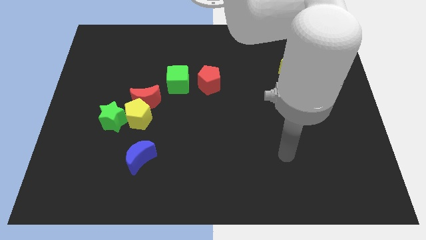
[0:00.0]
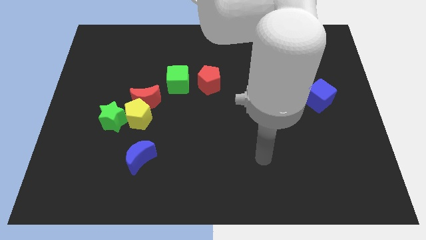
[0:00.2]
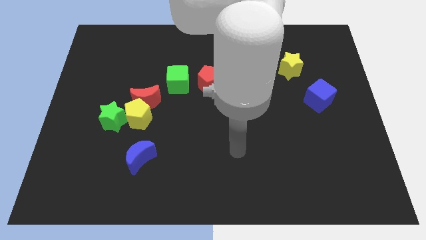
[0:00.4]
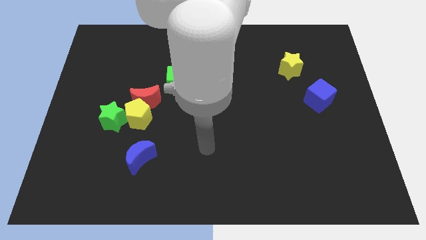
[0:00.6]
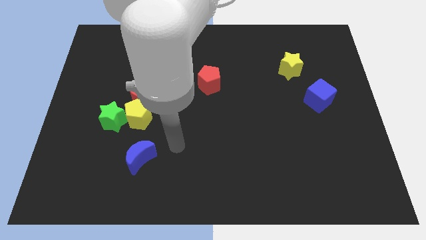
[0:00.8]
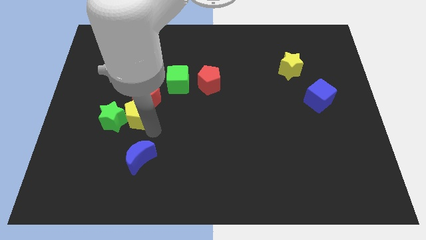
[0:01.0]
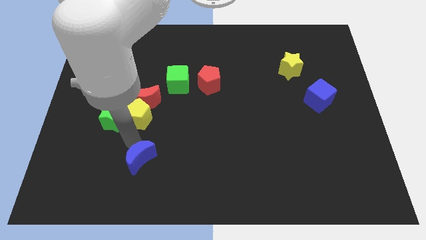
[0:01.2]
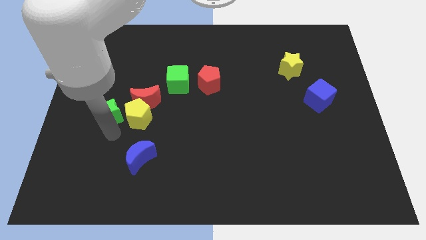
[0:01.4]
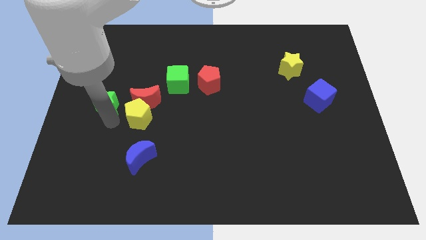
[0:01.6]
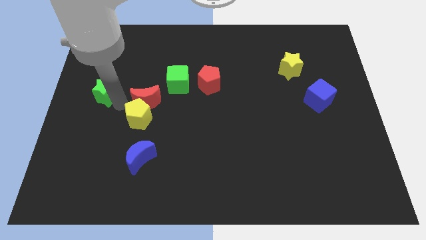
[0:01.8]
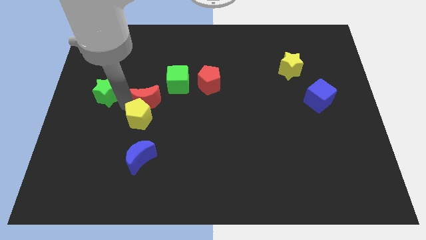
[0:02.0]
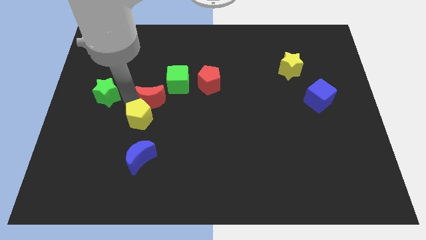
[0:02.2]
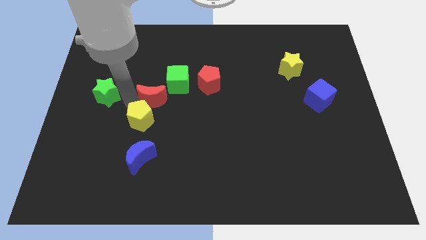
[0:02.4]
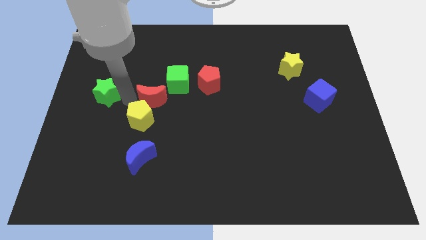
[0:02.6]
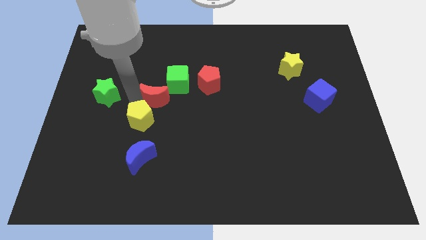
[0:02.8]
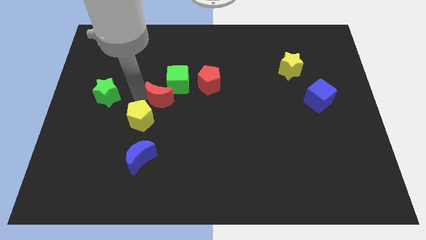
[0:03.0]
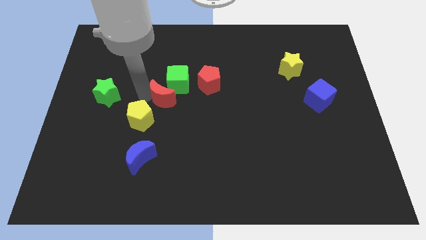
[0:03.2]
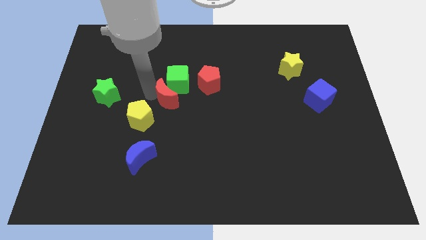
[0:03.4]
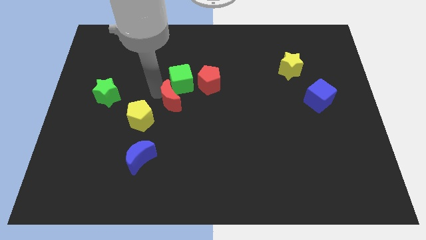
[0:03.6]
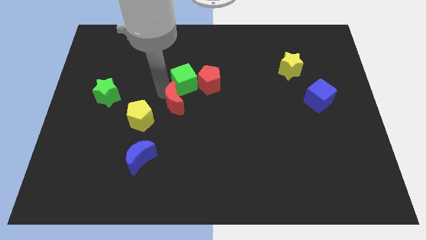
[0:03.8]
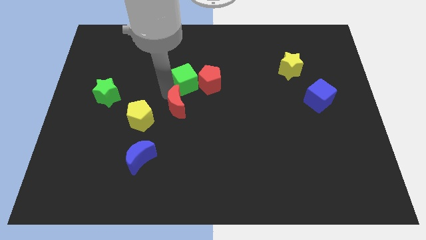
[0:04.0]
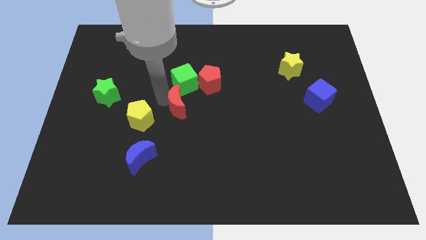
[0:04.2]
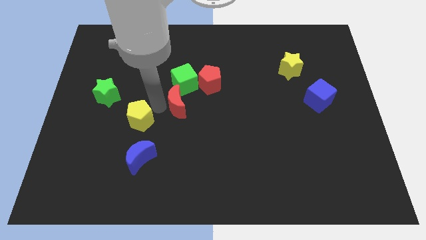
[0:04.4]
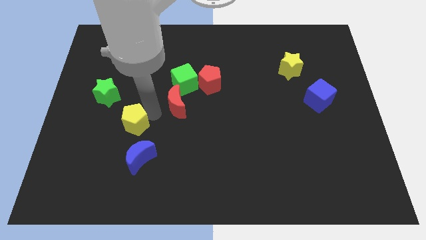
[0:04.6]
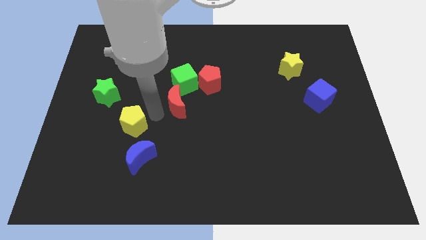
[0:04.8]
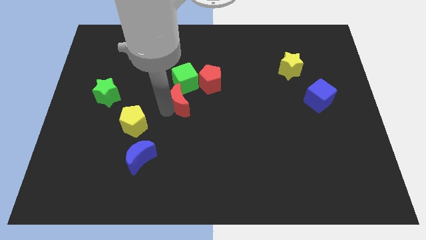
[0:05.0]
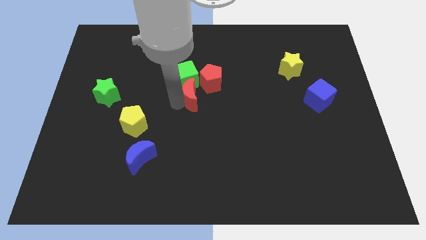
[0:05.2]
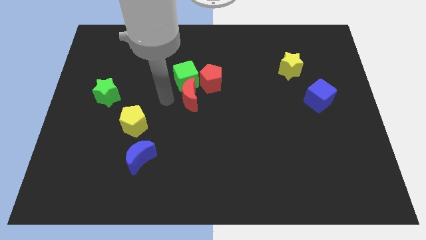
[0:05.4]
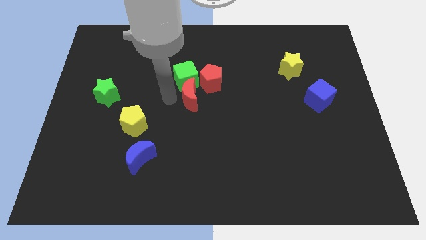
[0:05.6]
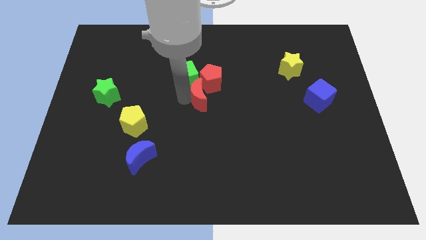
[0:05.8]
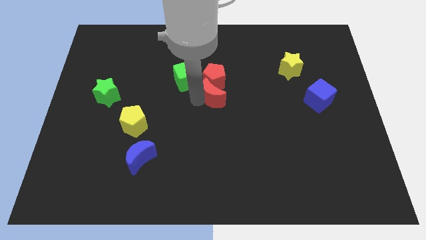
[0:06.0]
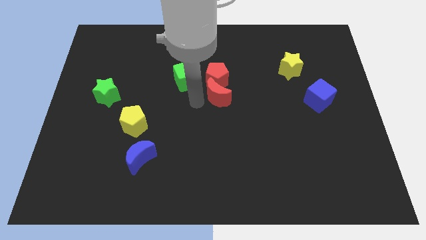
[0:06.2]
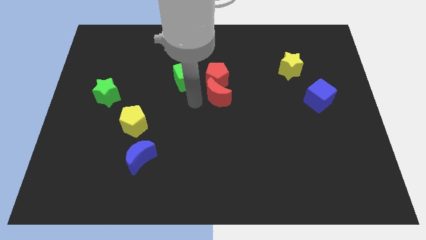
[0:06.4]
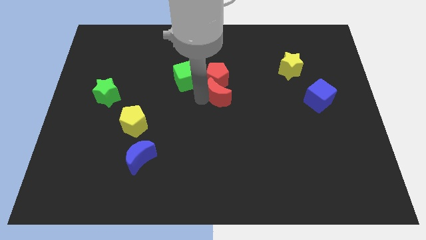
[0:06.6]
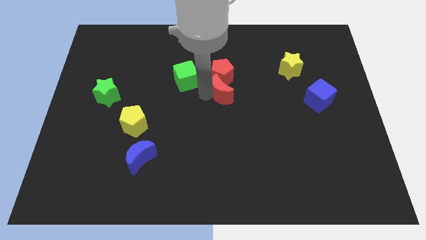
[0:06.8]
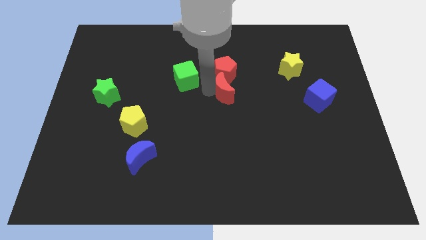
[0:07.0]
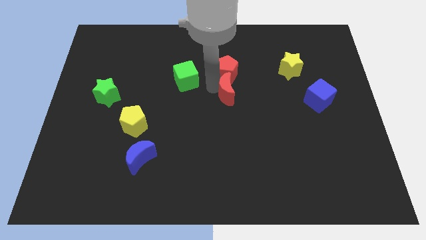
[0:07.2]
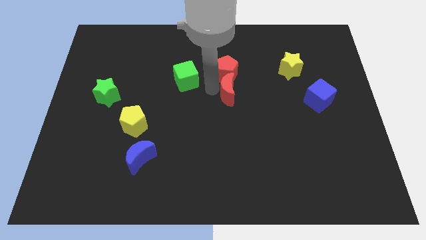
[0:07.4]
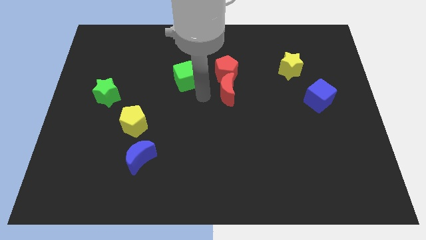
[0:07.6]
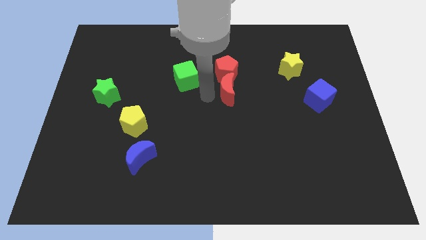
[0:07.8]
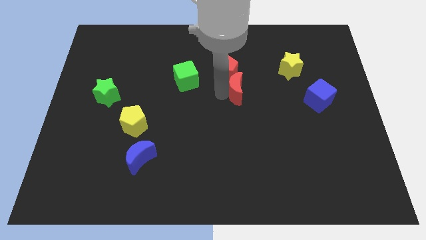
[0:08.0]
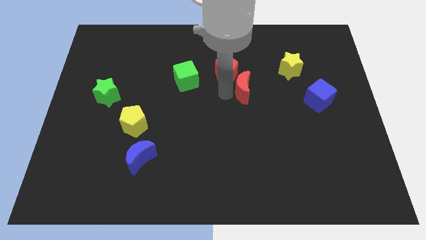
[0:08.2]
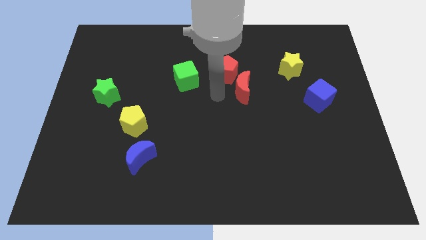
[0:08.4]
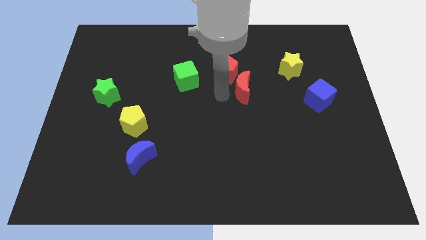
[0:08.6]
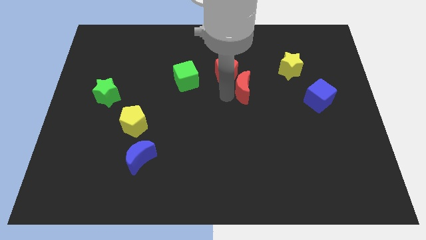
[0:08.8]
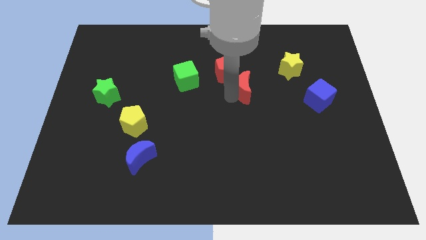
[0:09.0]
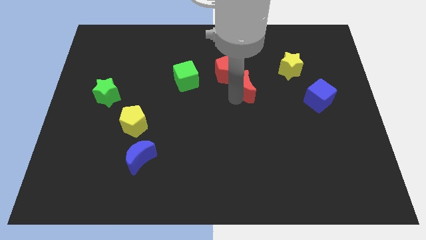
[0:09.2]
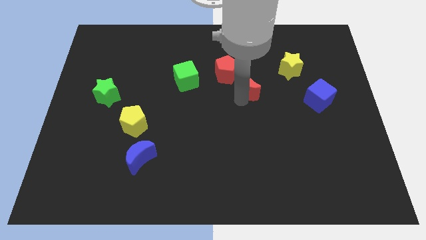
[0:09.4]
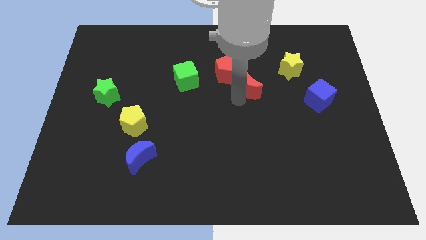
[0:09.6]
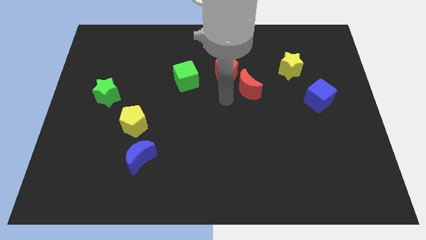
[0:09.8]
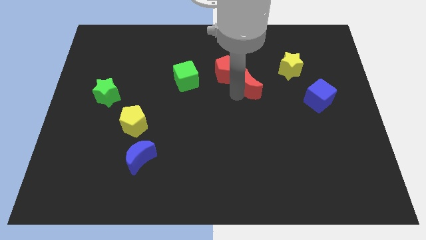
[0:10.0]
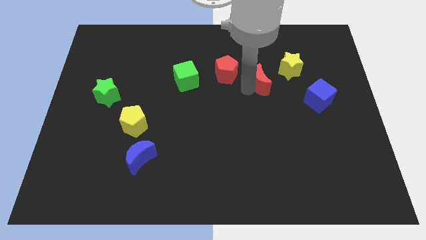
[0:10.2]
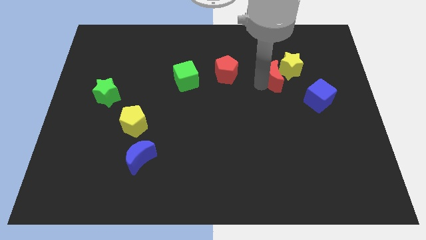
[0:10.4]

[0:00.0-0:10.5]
move the red moon towards the yellow star

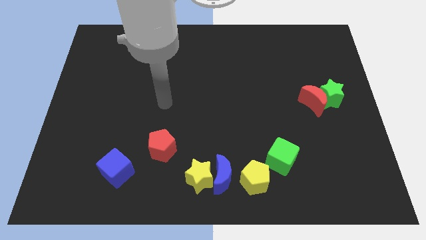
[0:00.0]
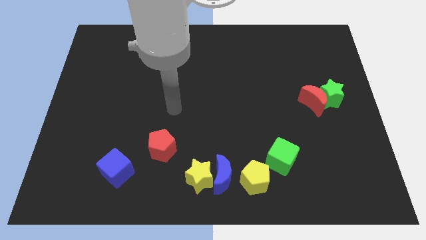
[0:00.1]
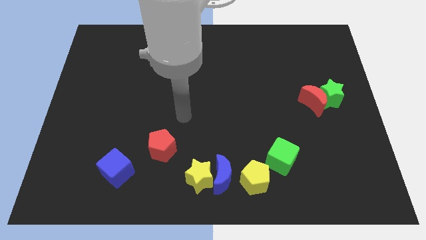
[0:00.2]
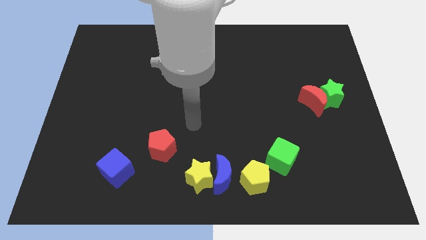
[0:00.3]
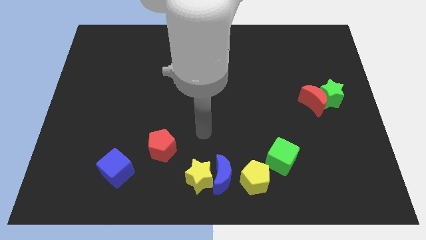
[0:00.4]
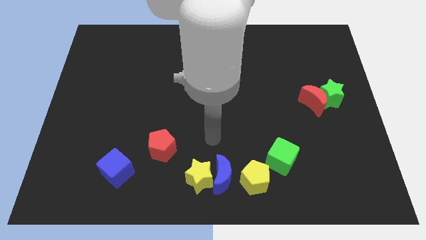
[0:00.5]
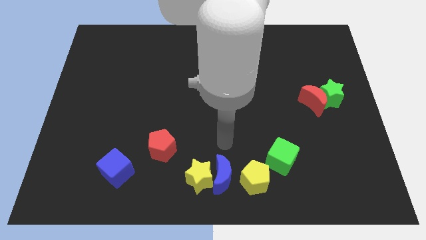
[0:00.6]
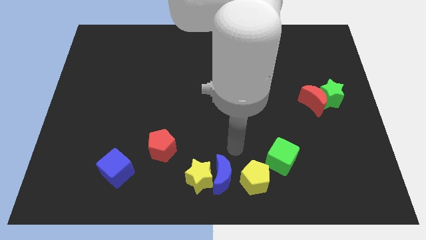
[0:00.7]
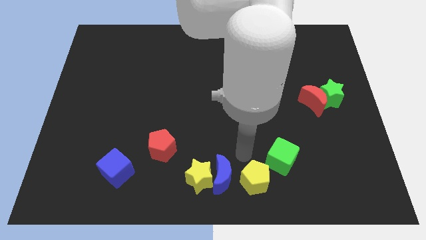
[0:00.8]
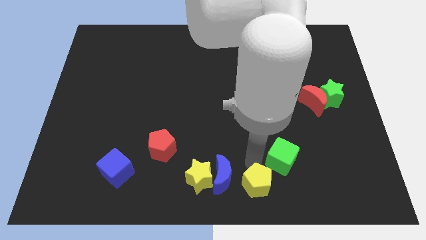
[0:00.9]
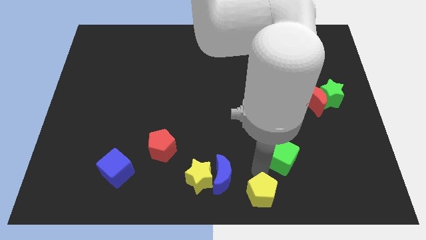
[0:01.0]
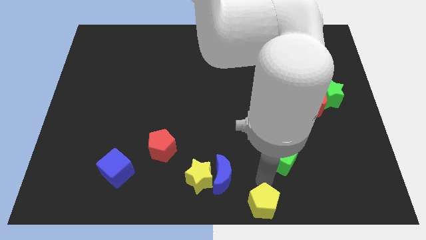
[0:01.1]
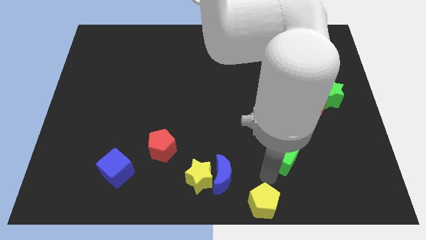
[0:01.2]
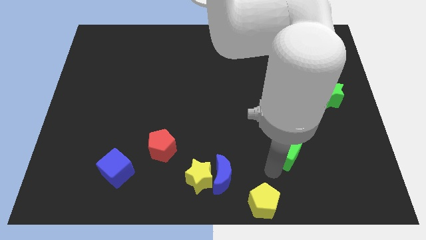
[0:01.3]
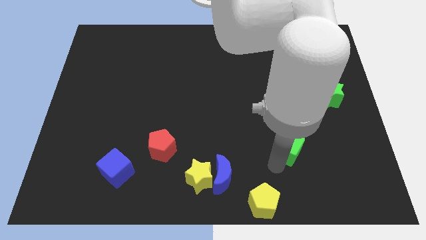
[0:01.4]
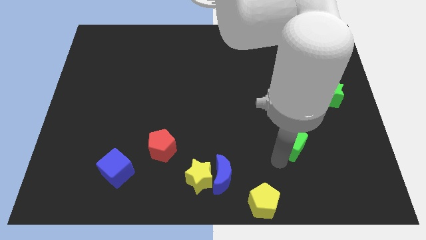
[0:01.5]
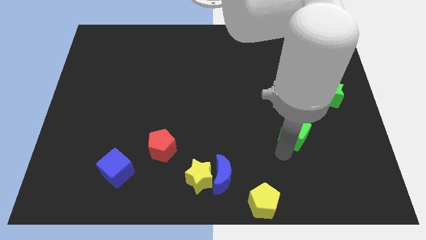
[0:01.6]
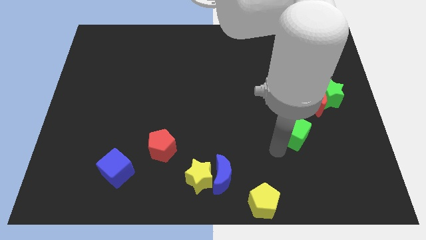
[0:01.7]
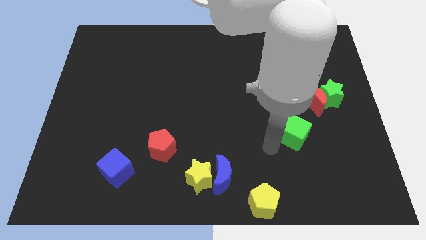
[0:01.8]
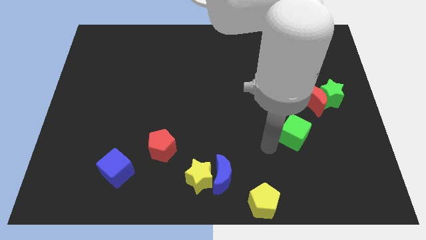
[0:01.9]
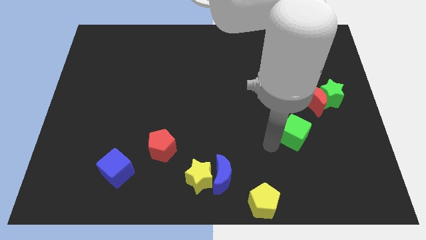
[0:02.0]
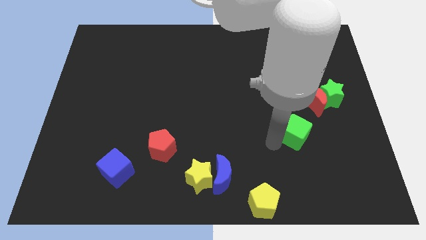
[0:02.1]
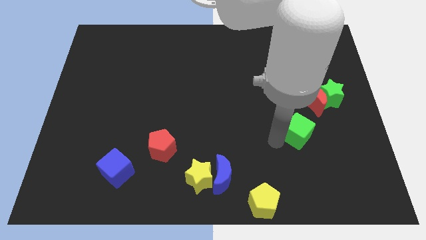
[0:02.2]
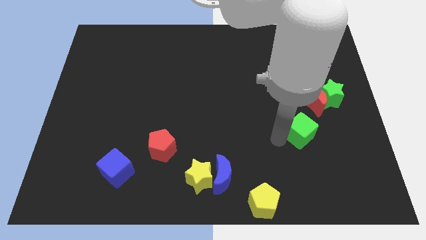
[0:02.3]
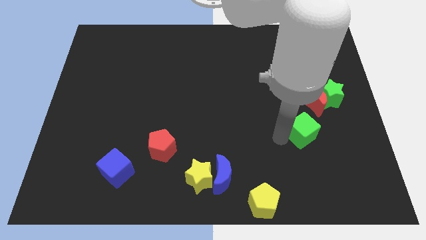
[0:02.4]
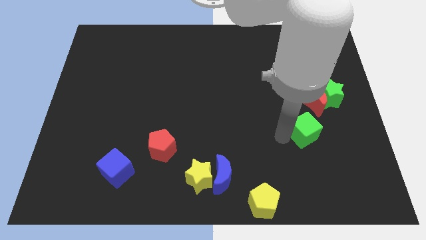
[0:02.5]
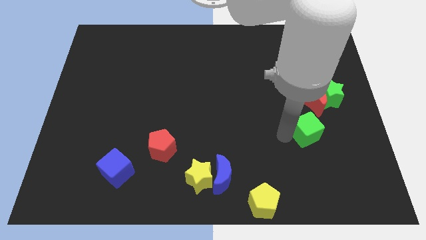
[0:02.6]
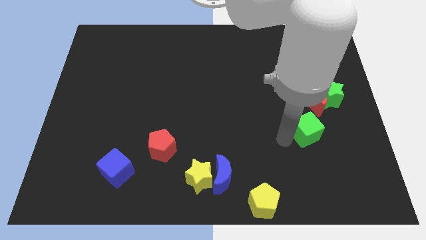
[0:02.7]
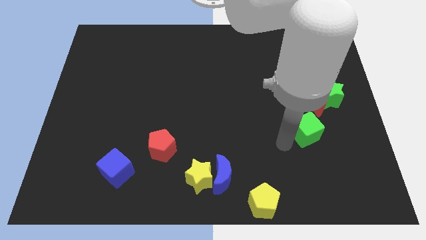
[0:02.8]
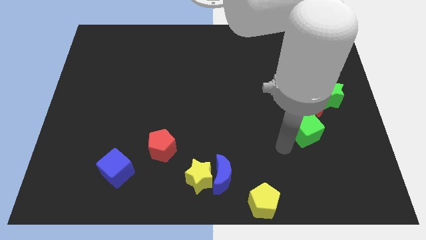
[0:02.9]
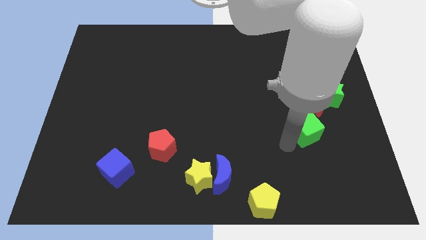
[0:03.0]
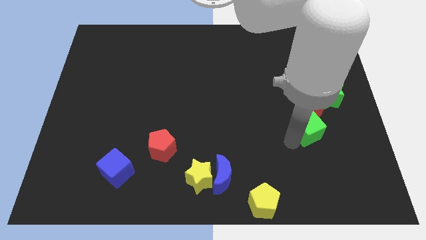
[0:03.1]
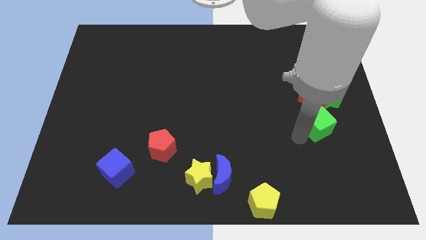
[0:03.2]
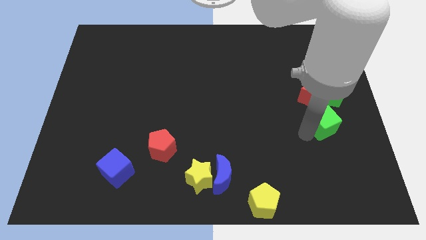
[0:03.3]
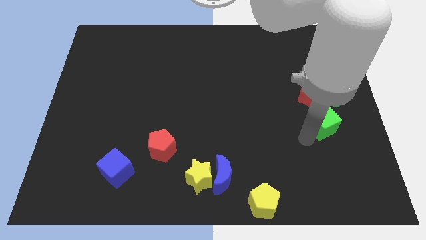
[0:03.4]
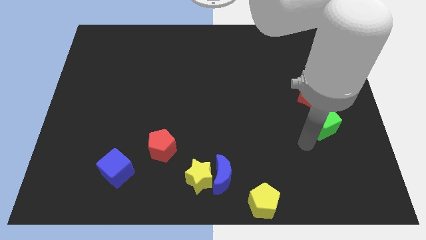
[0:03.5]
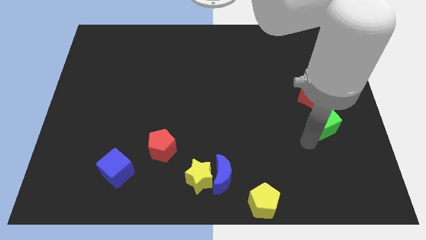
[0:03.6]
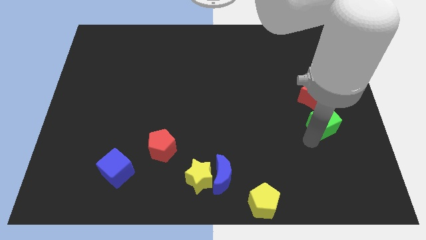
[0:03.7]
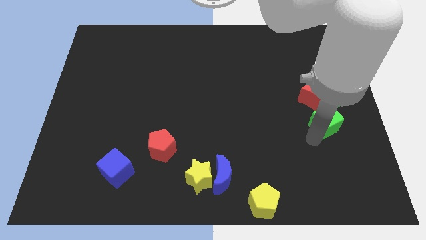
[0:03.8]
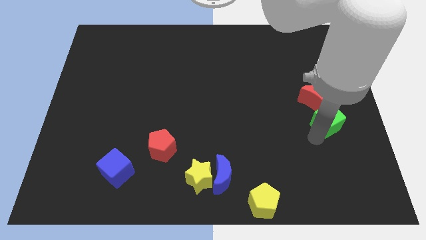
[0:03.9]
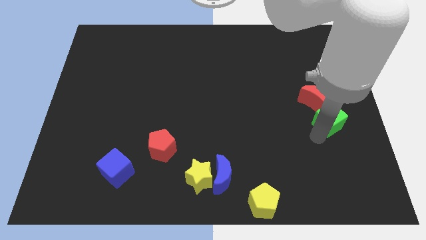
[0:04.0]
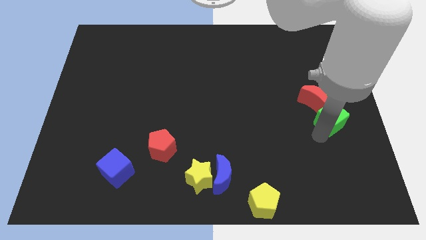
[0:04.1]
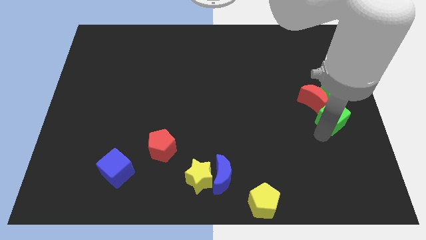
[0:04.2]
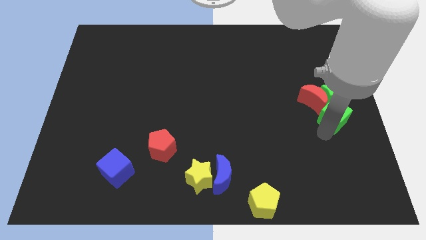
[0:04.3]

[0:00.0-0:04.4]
slide the green cube to the red moon
